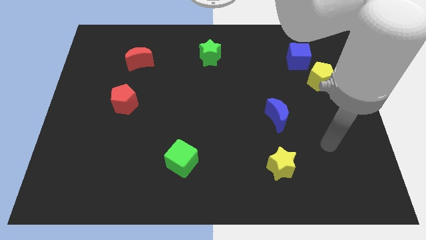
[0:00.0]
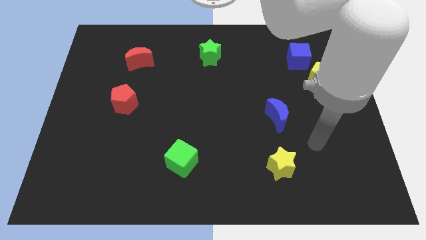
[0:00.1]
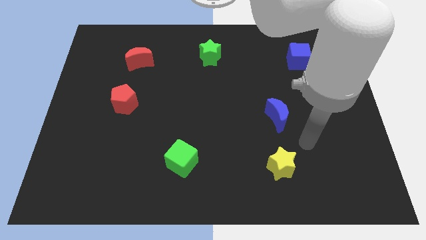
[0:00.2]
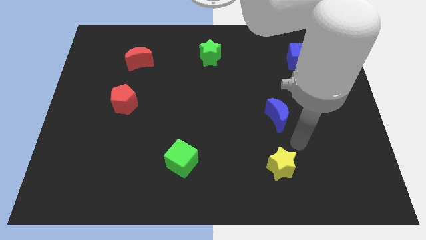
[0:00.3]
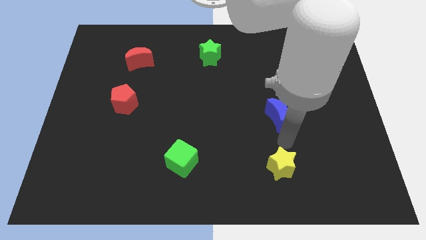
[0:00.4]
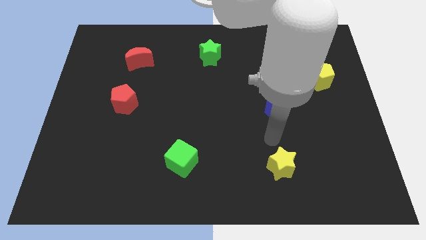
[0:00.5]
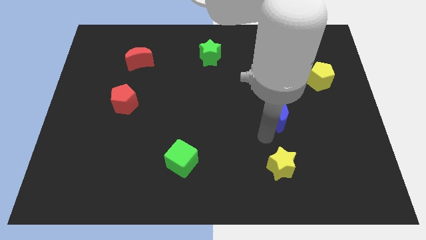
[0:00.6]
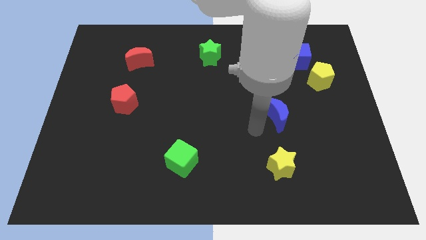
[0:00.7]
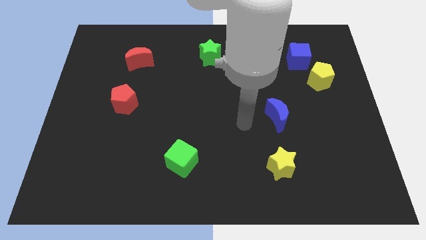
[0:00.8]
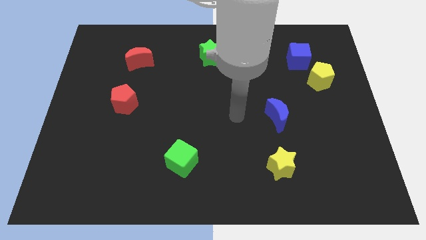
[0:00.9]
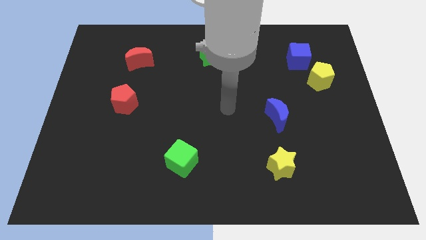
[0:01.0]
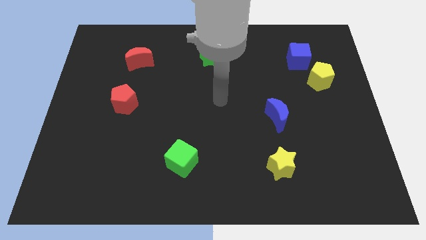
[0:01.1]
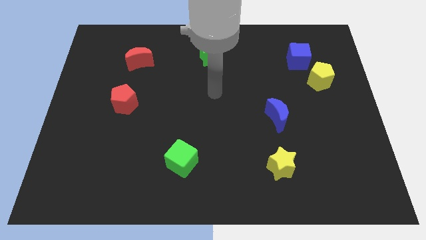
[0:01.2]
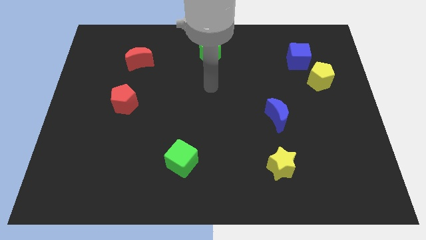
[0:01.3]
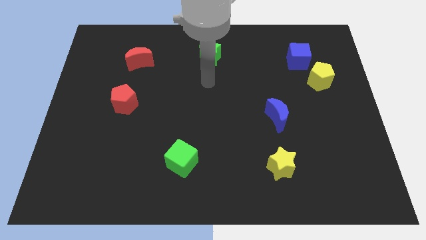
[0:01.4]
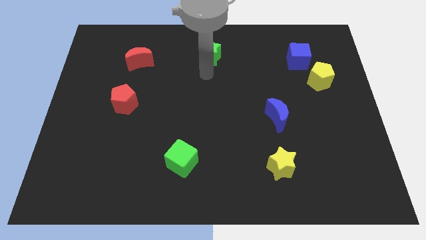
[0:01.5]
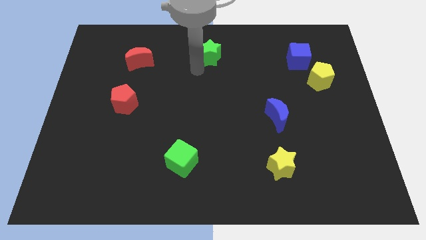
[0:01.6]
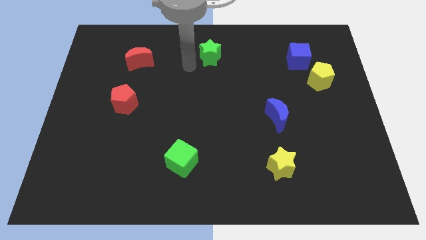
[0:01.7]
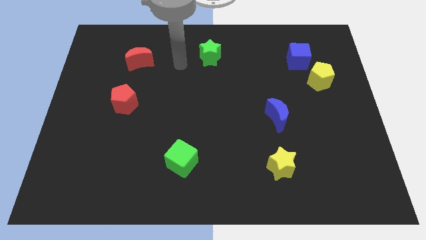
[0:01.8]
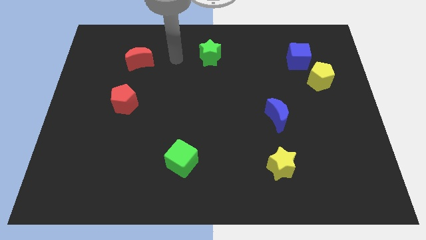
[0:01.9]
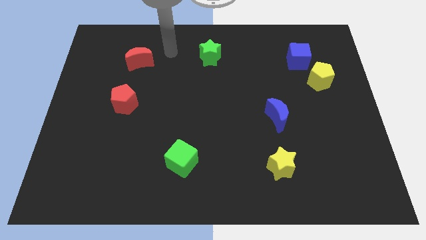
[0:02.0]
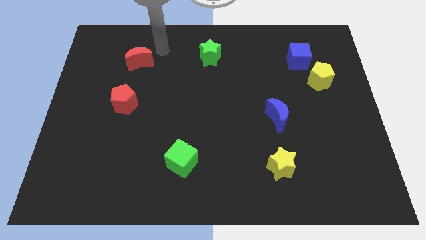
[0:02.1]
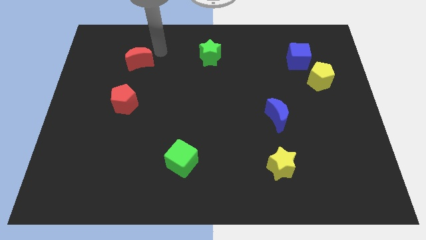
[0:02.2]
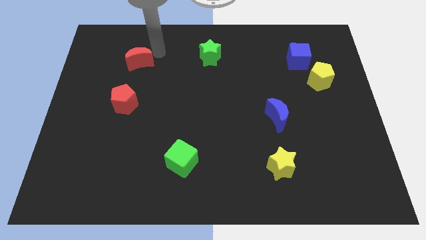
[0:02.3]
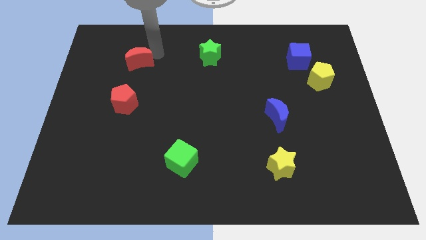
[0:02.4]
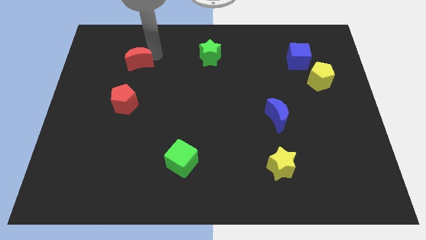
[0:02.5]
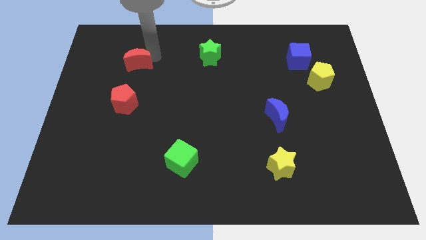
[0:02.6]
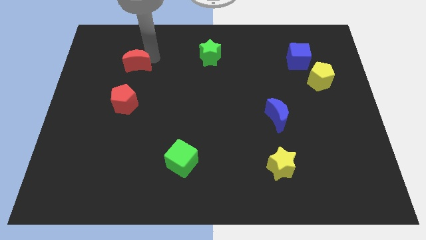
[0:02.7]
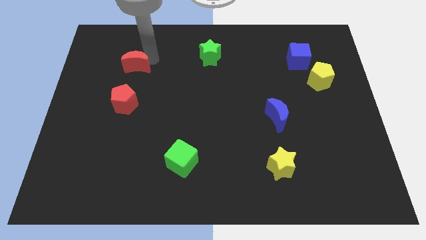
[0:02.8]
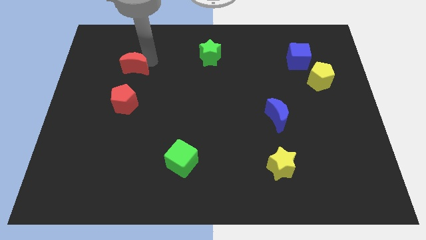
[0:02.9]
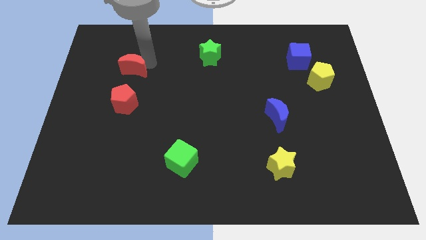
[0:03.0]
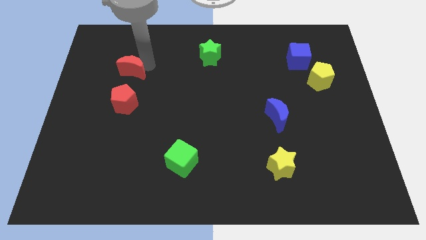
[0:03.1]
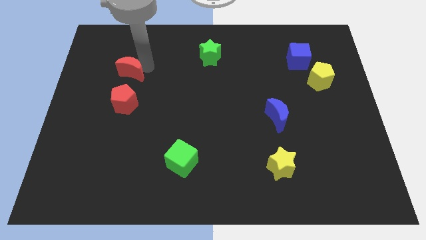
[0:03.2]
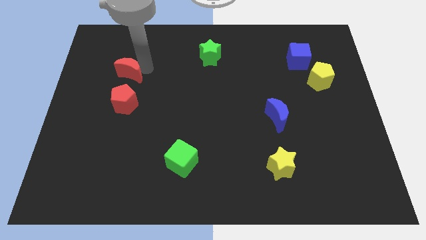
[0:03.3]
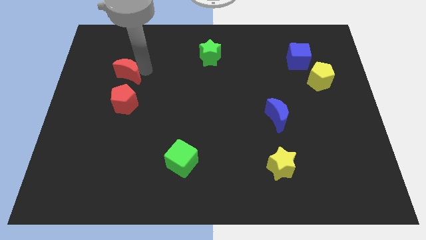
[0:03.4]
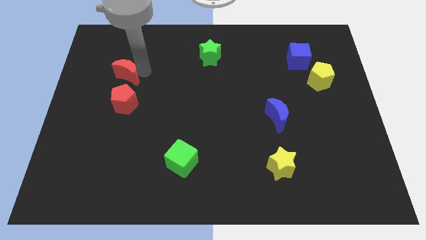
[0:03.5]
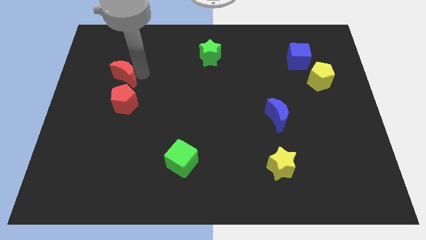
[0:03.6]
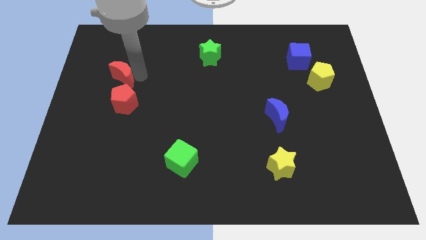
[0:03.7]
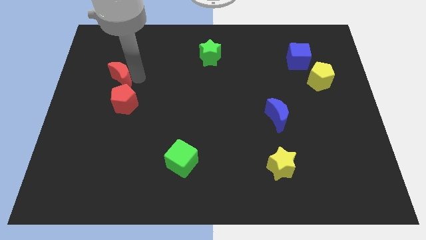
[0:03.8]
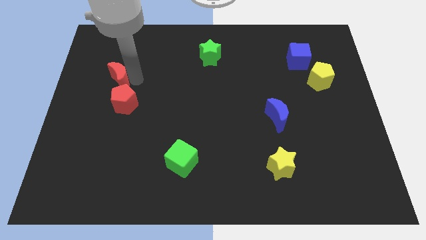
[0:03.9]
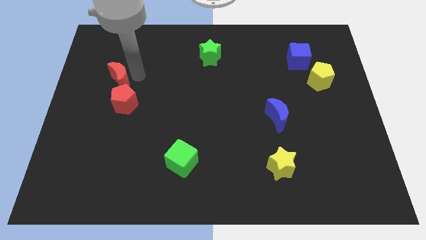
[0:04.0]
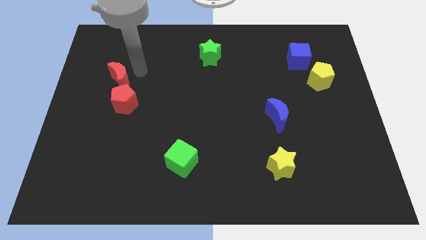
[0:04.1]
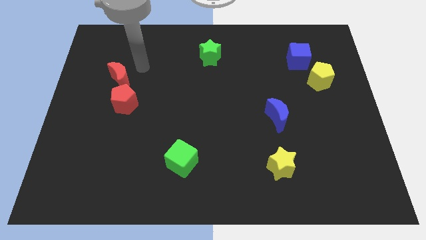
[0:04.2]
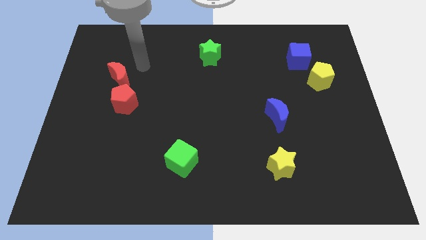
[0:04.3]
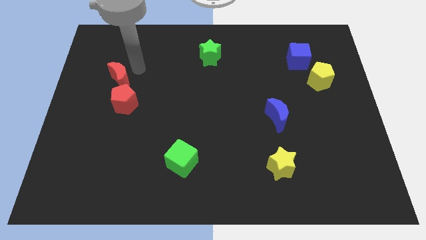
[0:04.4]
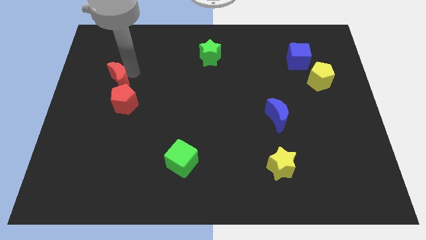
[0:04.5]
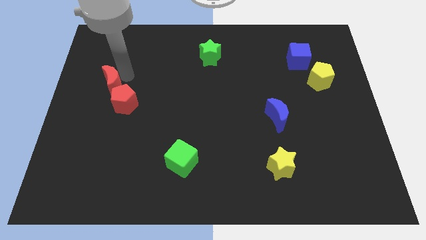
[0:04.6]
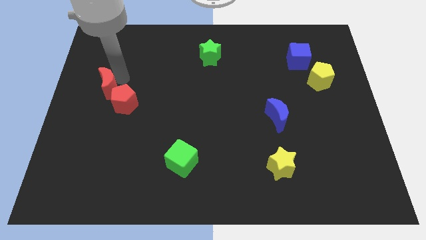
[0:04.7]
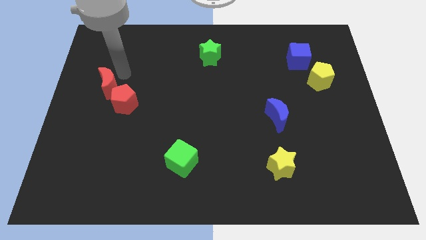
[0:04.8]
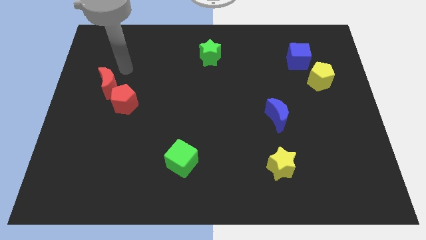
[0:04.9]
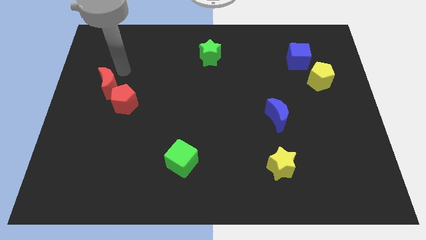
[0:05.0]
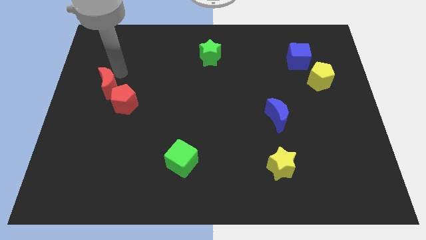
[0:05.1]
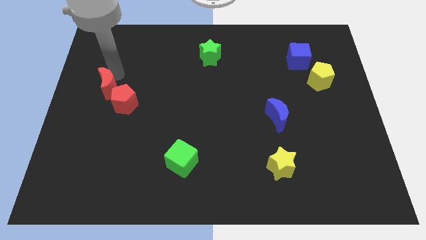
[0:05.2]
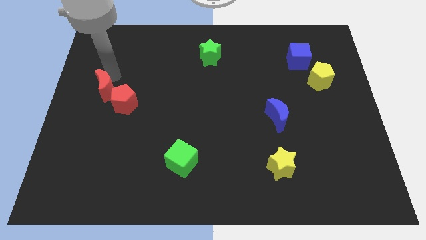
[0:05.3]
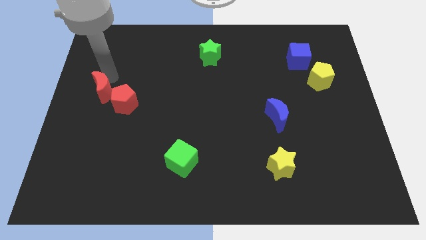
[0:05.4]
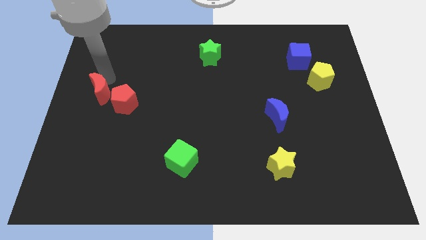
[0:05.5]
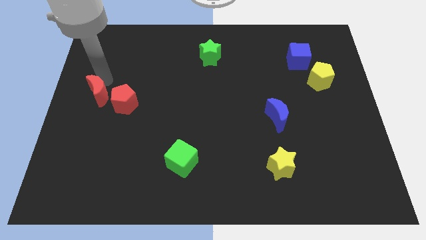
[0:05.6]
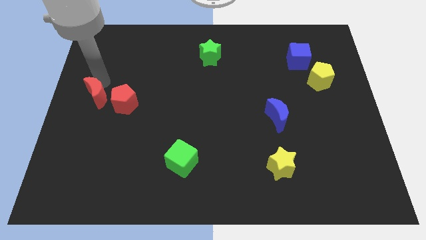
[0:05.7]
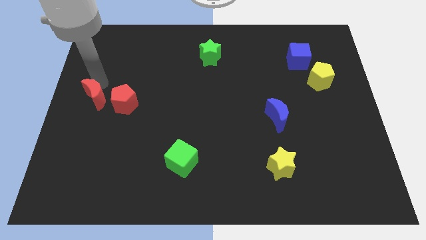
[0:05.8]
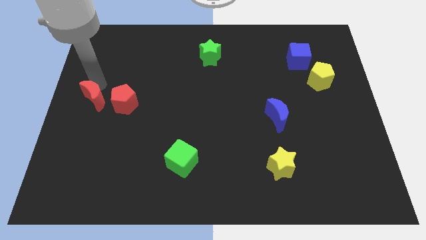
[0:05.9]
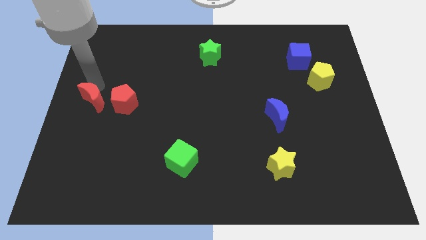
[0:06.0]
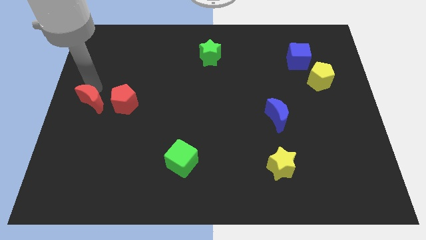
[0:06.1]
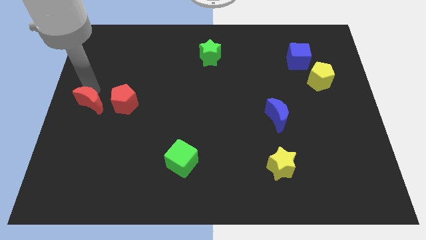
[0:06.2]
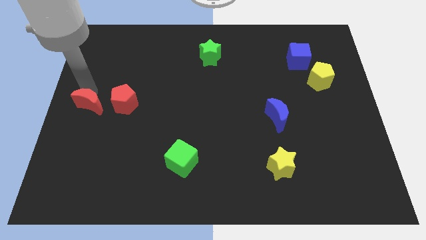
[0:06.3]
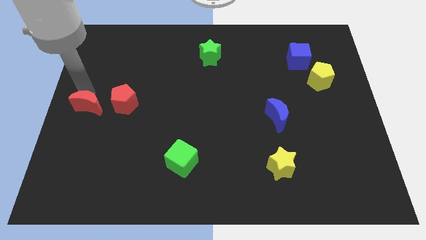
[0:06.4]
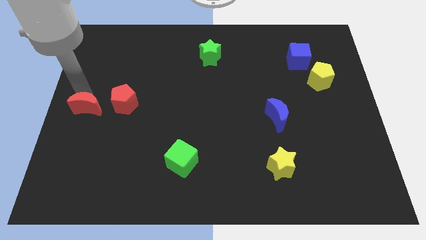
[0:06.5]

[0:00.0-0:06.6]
push the red moon diagonally down and to the left of the red pentagon

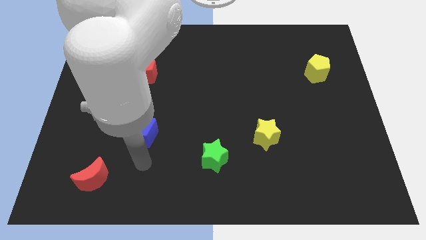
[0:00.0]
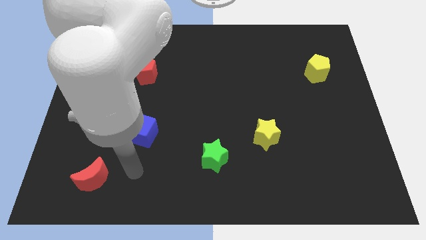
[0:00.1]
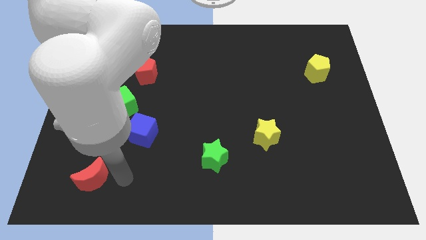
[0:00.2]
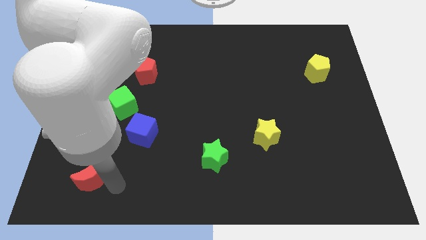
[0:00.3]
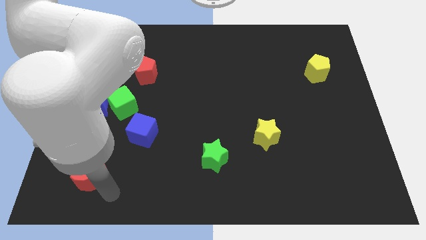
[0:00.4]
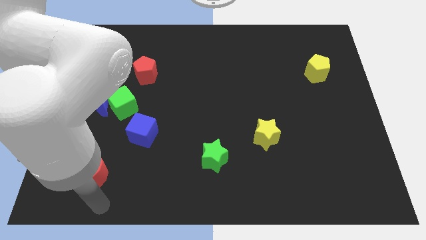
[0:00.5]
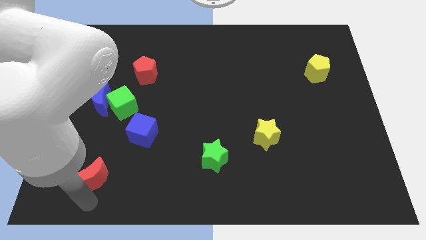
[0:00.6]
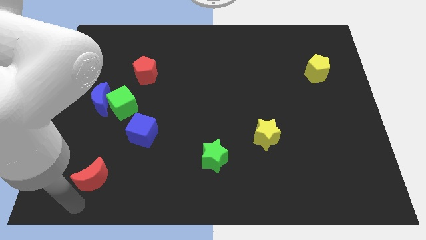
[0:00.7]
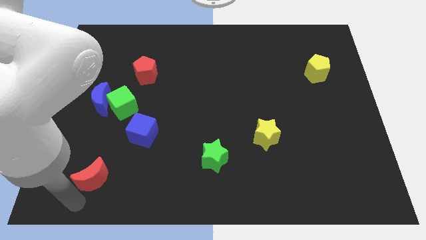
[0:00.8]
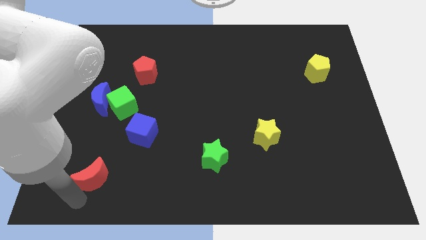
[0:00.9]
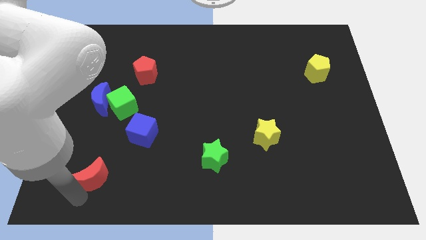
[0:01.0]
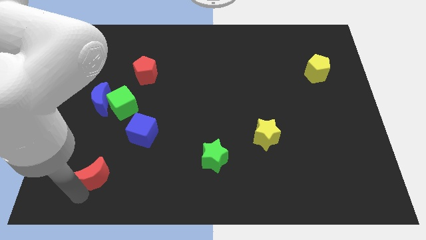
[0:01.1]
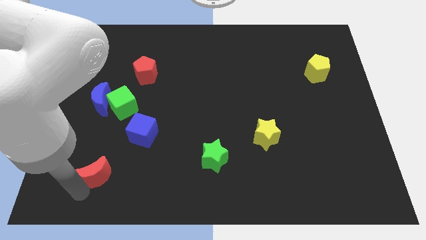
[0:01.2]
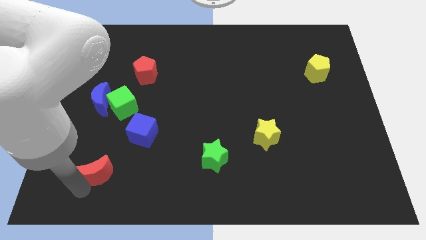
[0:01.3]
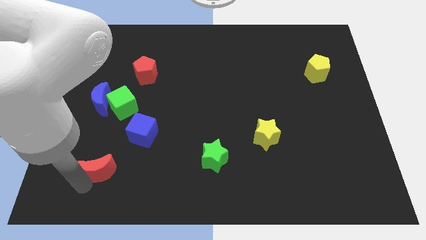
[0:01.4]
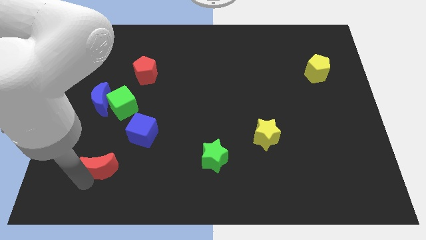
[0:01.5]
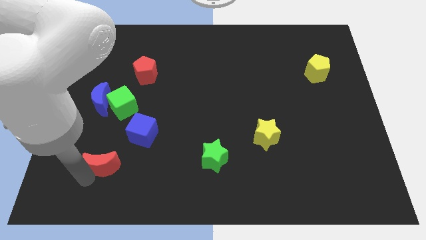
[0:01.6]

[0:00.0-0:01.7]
slide the red moon below the green cube
